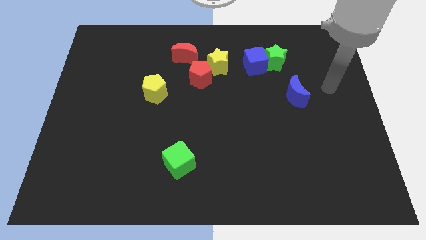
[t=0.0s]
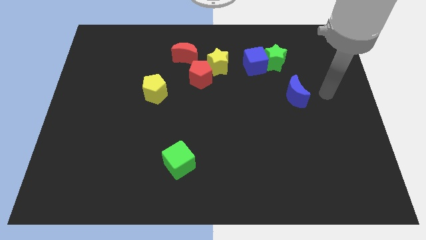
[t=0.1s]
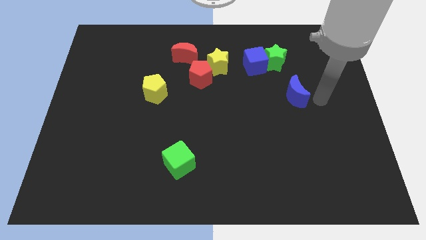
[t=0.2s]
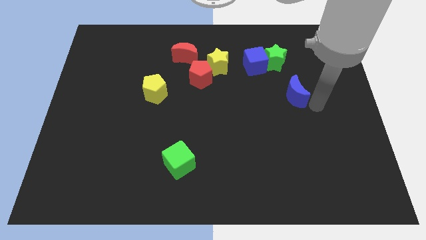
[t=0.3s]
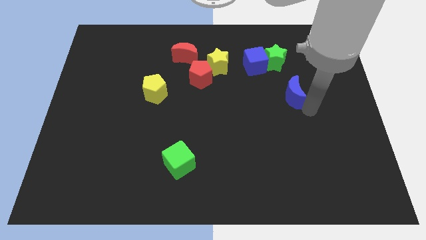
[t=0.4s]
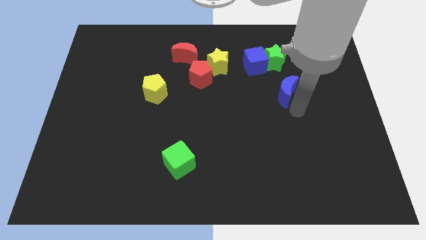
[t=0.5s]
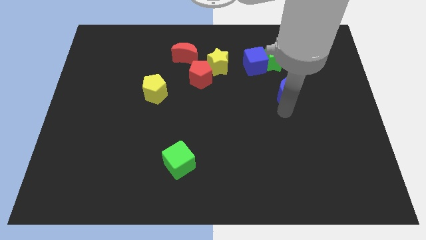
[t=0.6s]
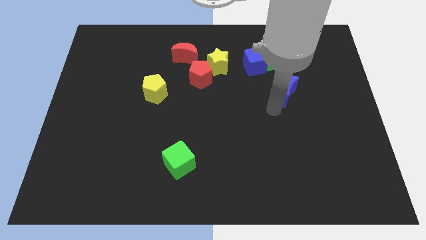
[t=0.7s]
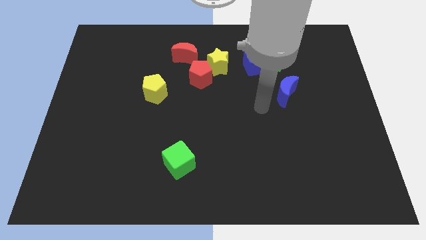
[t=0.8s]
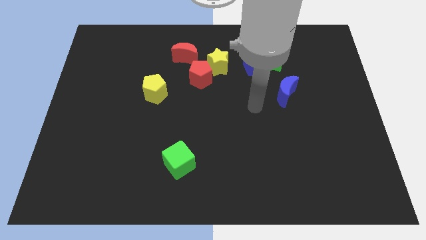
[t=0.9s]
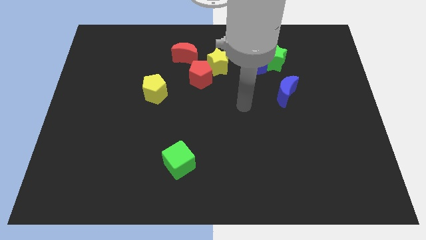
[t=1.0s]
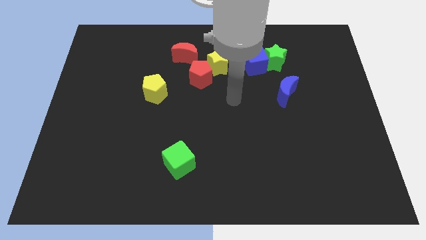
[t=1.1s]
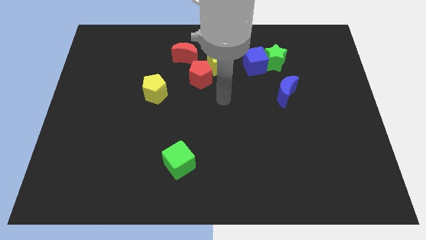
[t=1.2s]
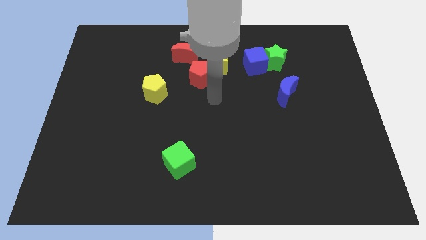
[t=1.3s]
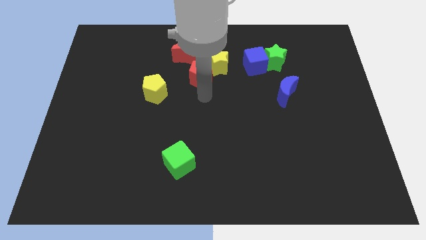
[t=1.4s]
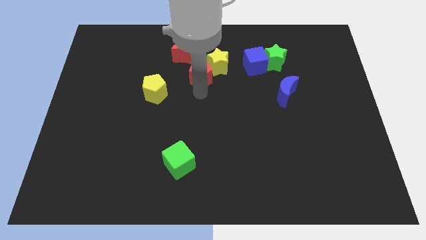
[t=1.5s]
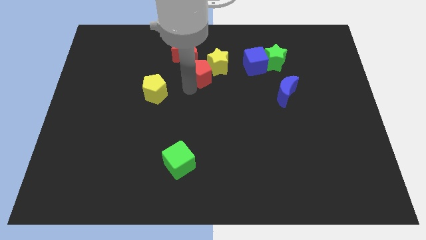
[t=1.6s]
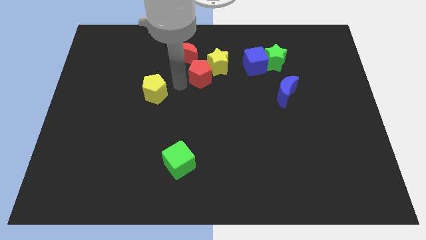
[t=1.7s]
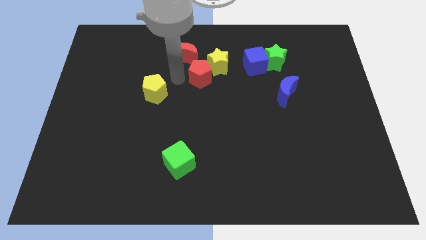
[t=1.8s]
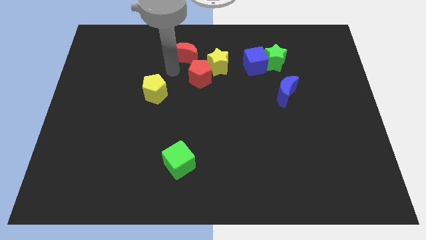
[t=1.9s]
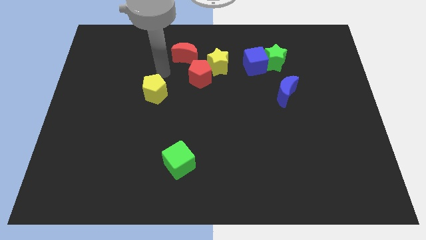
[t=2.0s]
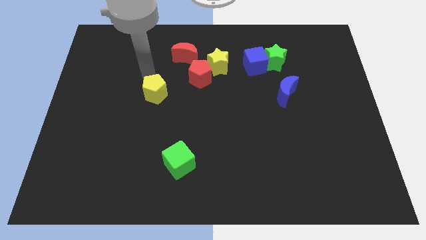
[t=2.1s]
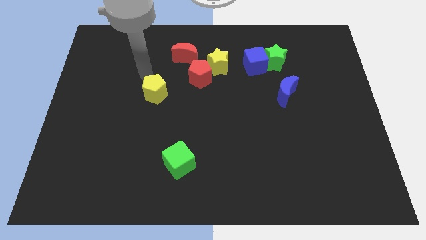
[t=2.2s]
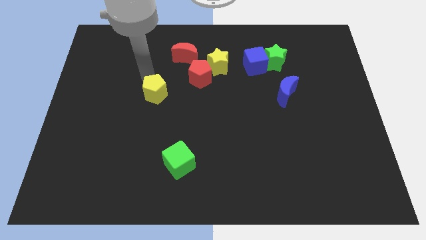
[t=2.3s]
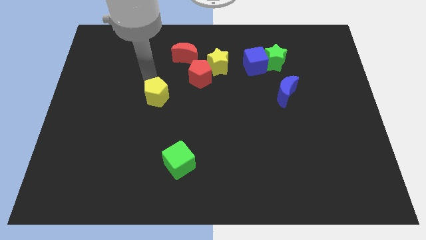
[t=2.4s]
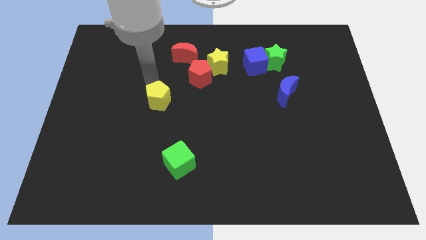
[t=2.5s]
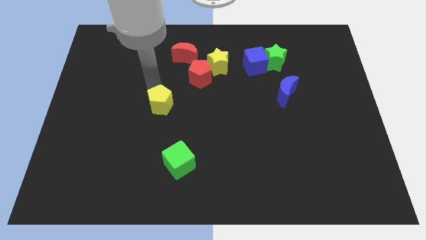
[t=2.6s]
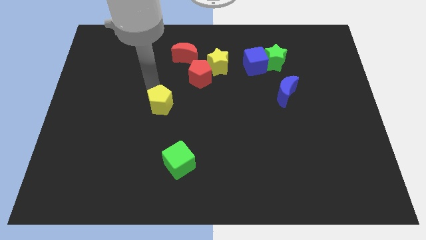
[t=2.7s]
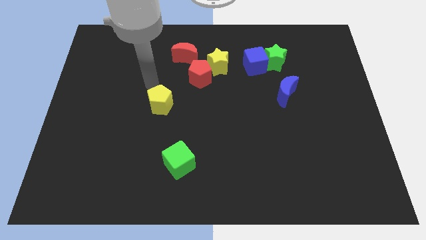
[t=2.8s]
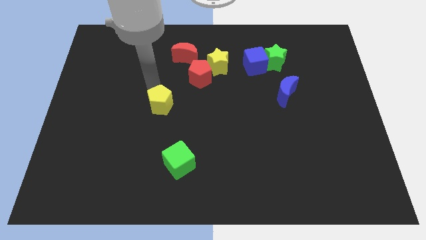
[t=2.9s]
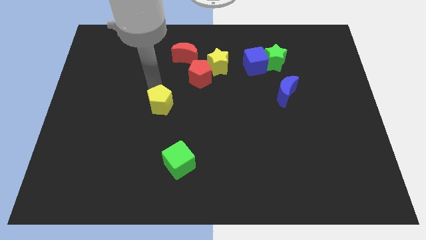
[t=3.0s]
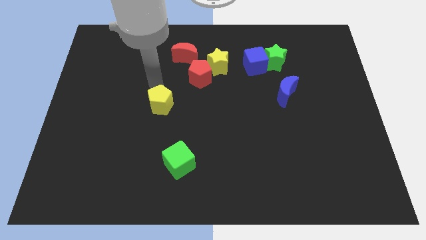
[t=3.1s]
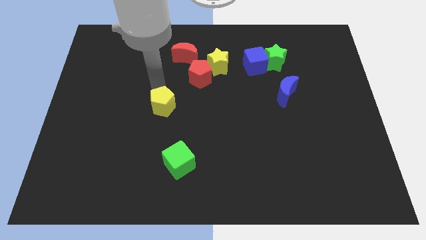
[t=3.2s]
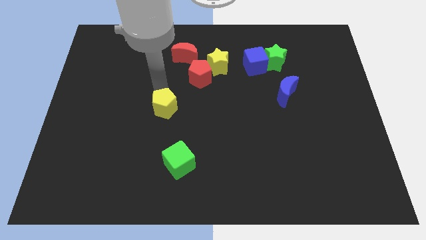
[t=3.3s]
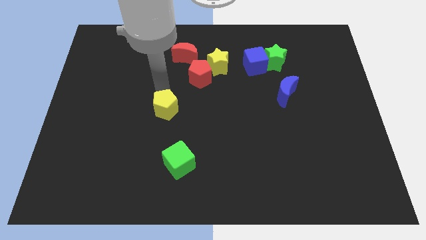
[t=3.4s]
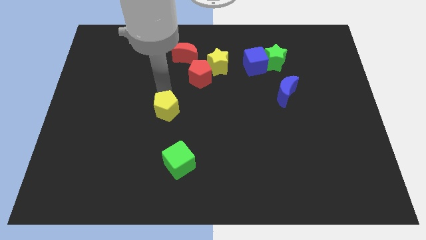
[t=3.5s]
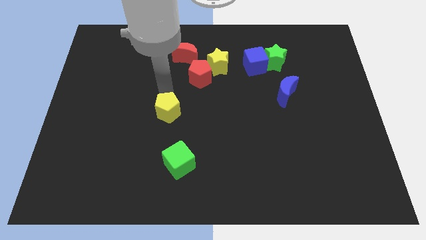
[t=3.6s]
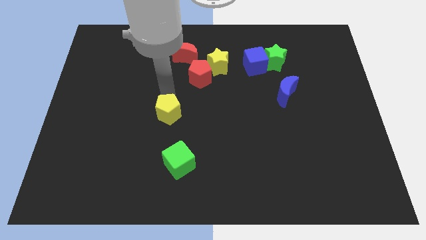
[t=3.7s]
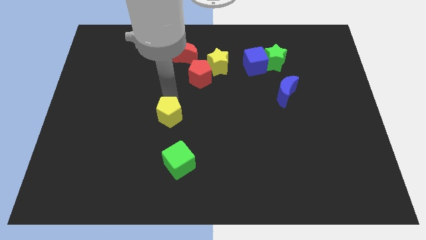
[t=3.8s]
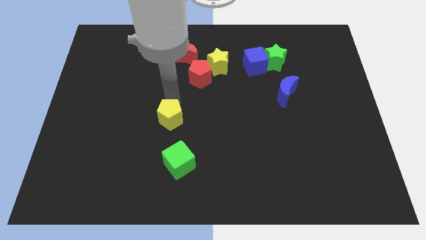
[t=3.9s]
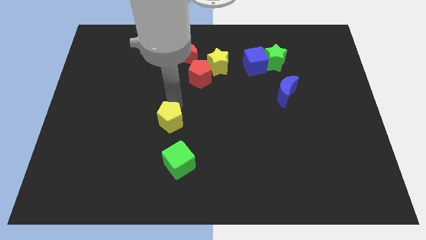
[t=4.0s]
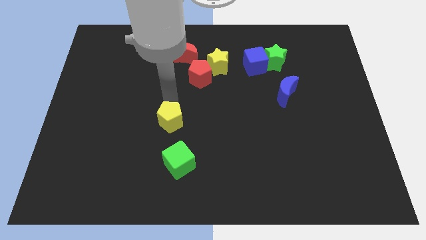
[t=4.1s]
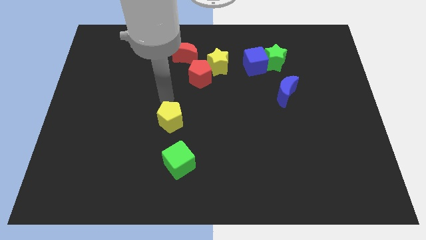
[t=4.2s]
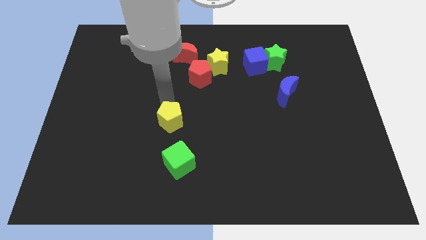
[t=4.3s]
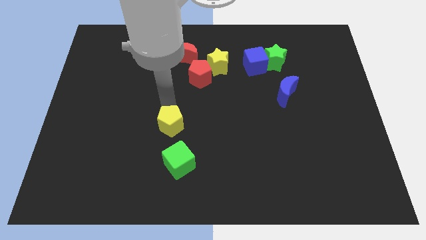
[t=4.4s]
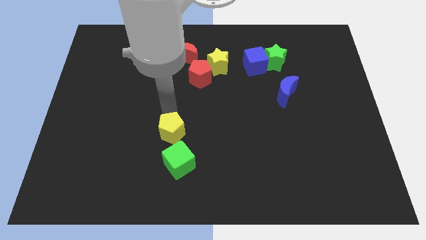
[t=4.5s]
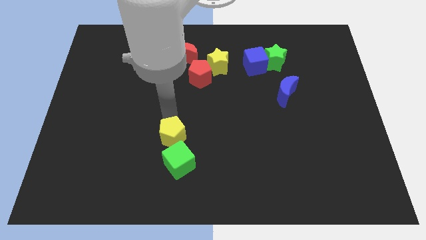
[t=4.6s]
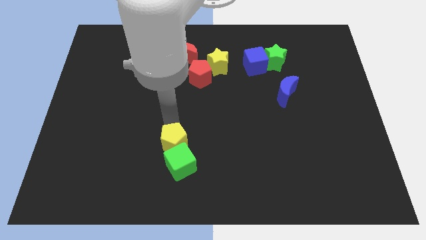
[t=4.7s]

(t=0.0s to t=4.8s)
push the yellow pentagon towards the green cube

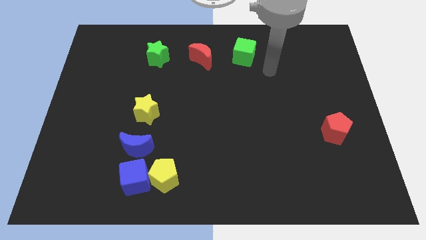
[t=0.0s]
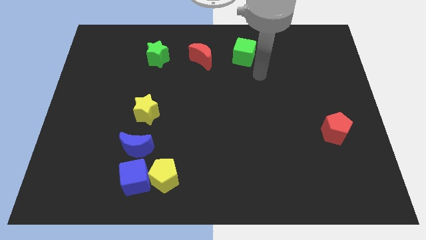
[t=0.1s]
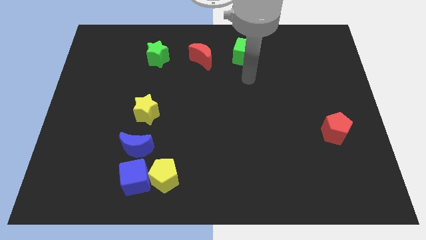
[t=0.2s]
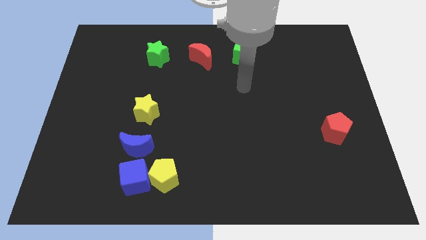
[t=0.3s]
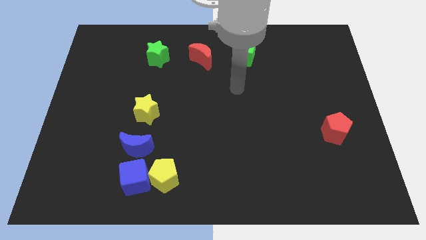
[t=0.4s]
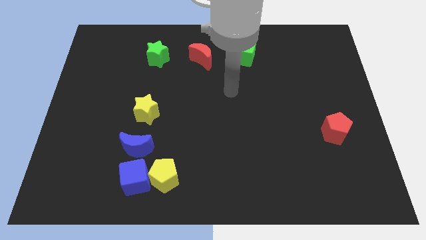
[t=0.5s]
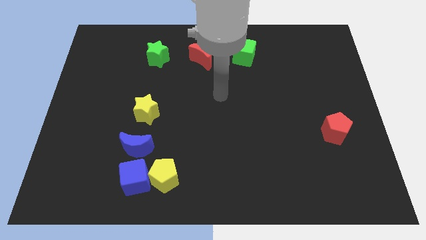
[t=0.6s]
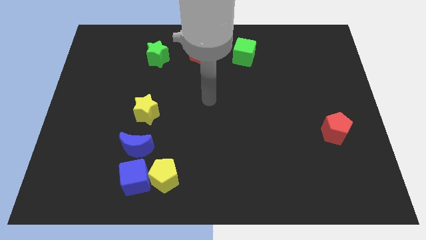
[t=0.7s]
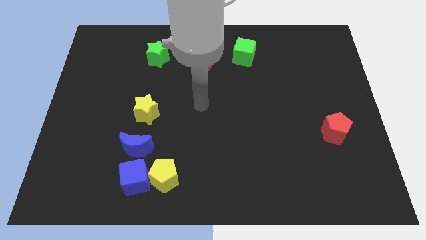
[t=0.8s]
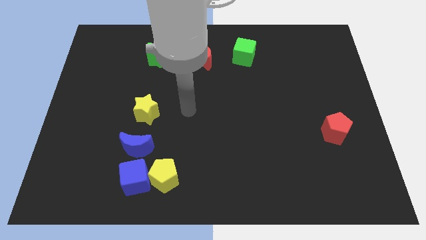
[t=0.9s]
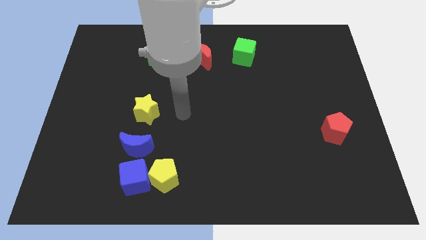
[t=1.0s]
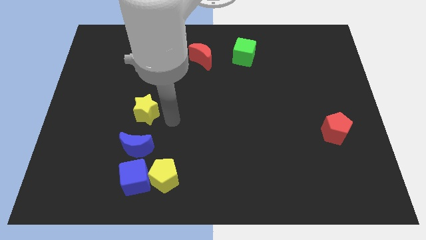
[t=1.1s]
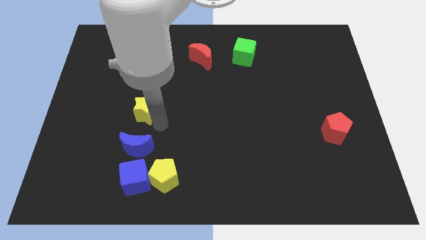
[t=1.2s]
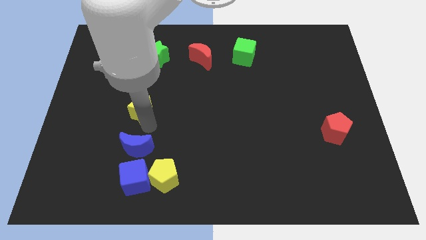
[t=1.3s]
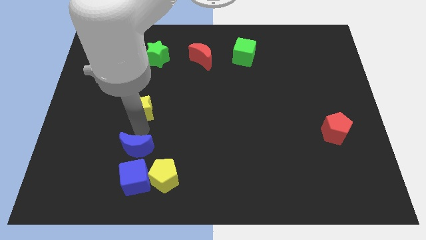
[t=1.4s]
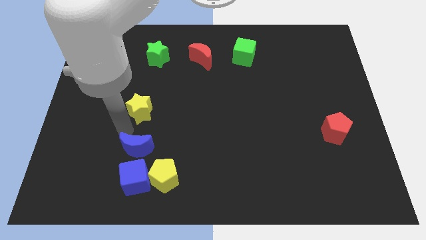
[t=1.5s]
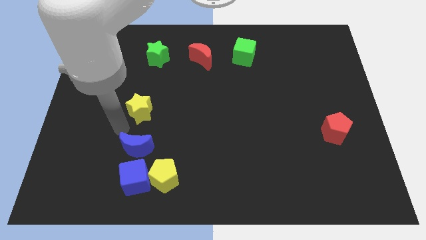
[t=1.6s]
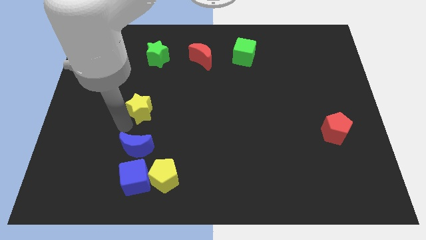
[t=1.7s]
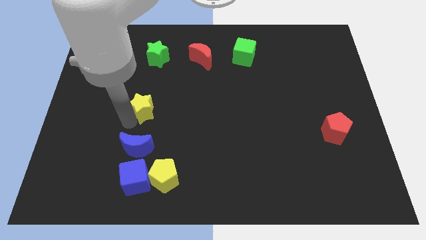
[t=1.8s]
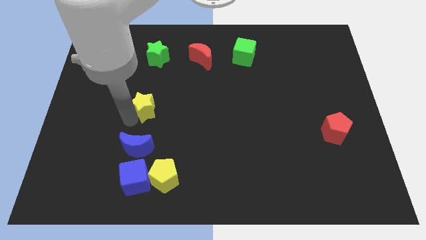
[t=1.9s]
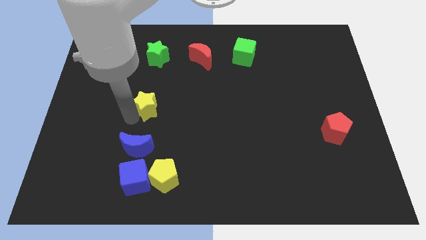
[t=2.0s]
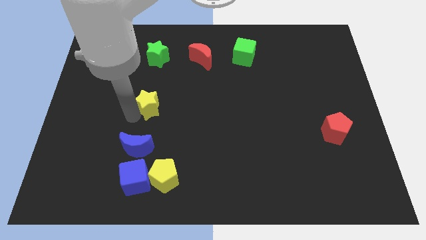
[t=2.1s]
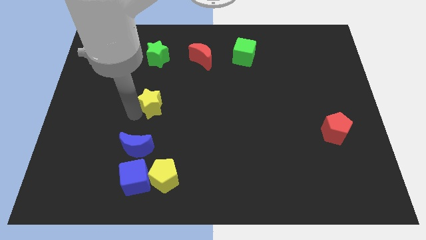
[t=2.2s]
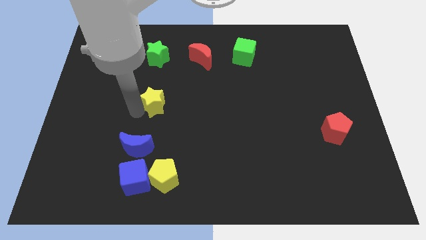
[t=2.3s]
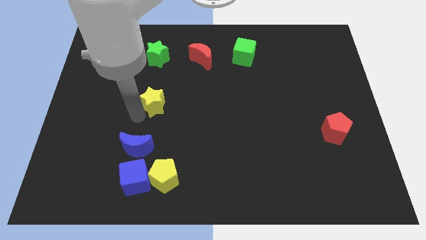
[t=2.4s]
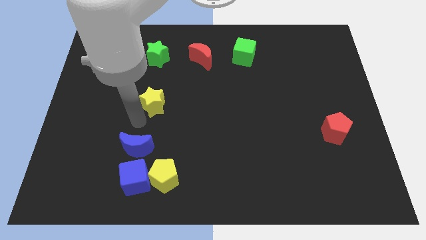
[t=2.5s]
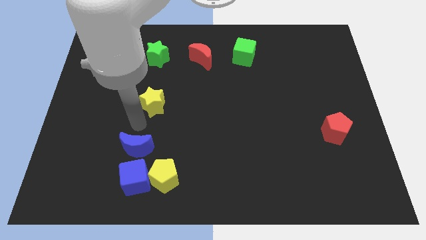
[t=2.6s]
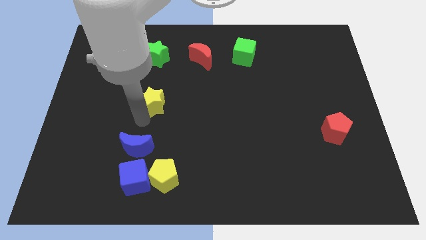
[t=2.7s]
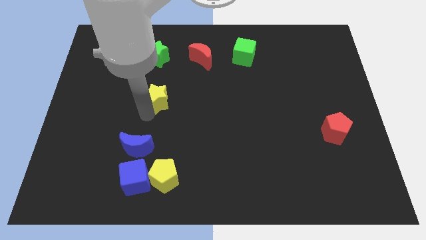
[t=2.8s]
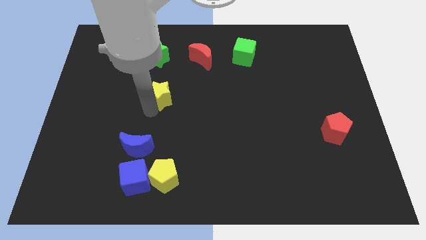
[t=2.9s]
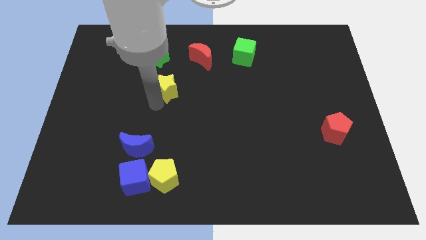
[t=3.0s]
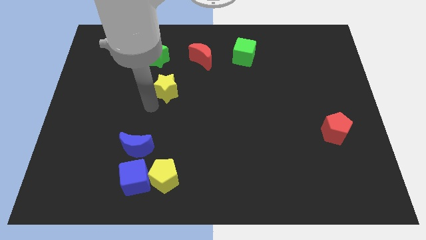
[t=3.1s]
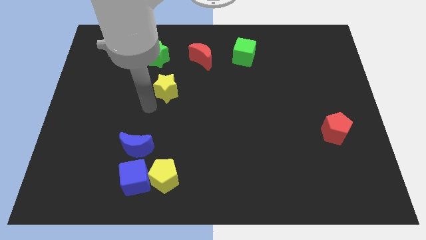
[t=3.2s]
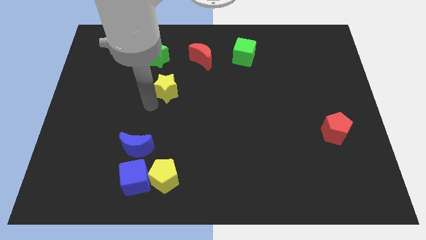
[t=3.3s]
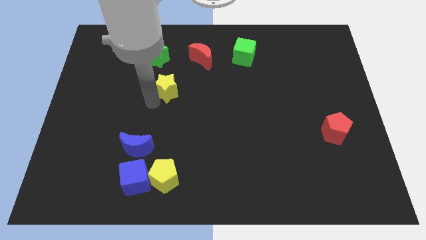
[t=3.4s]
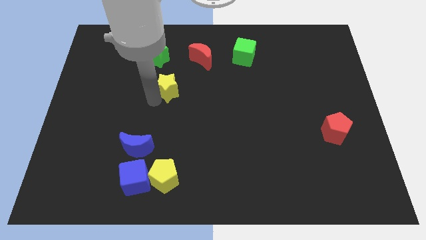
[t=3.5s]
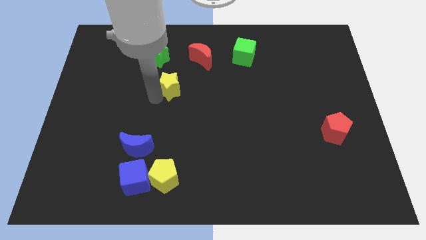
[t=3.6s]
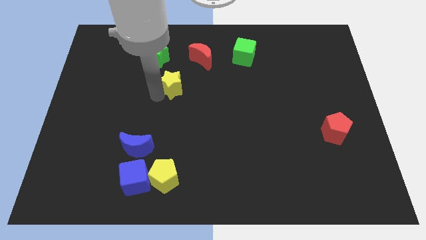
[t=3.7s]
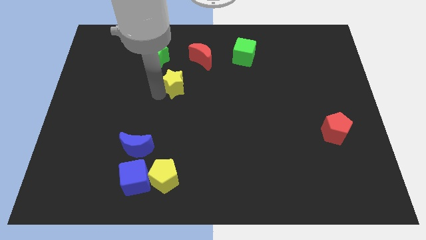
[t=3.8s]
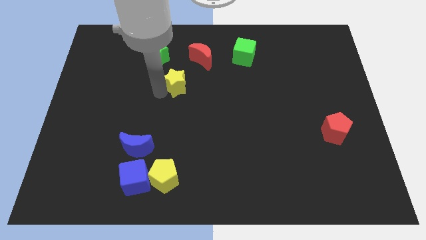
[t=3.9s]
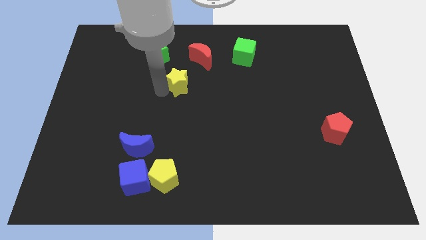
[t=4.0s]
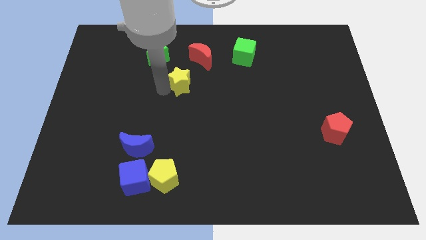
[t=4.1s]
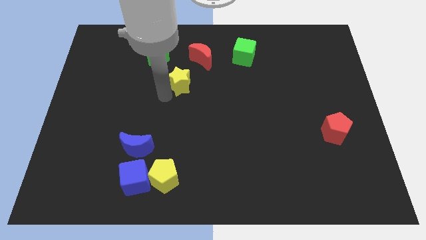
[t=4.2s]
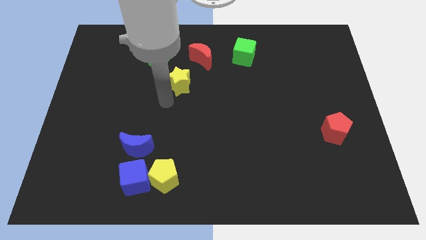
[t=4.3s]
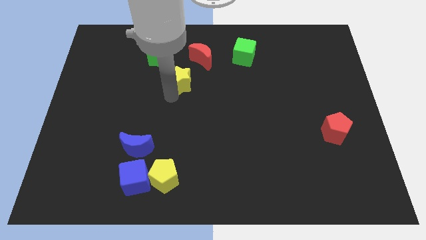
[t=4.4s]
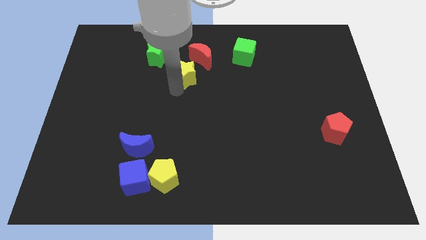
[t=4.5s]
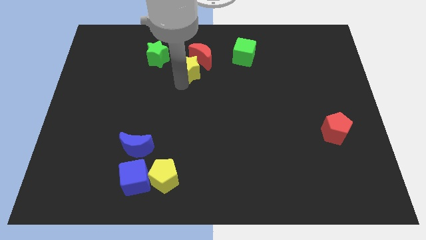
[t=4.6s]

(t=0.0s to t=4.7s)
push the yellow star next to the red moon
